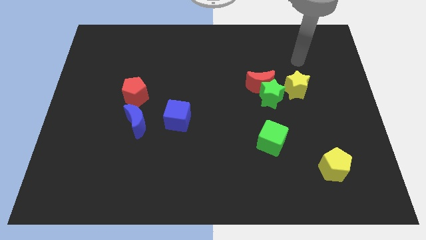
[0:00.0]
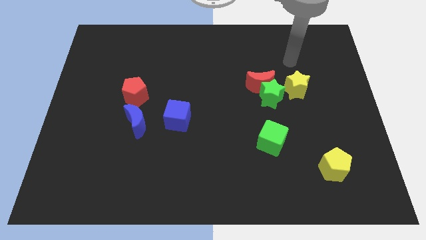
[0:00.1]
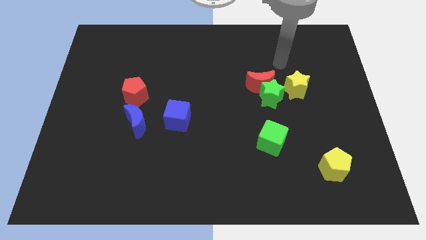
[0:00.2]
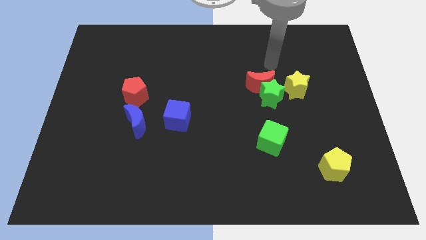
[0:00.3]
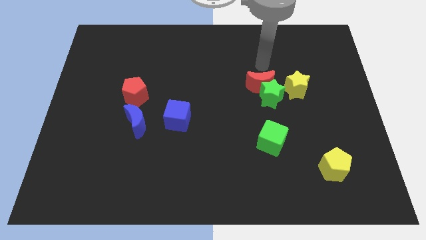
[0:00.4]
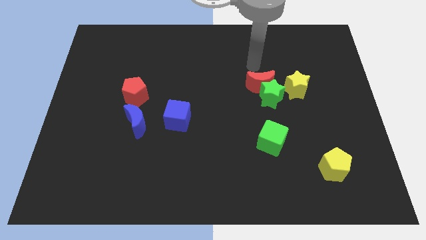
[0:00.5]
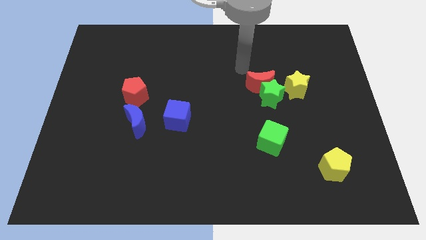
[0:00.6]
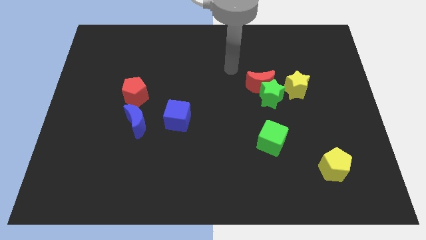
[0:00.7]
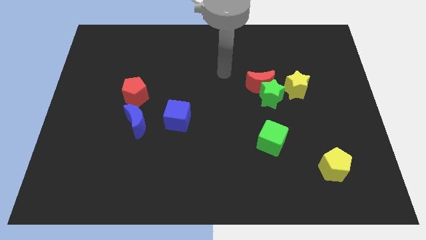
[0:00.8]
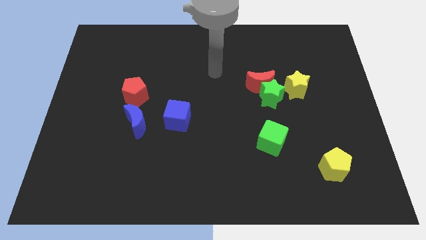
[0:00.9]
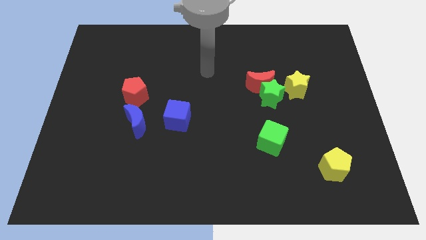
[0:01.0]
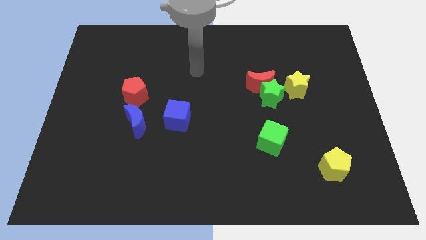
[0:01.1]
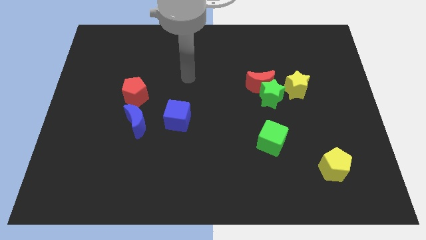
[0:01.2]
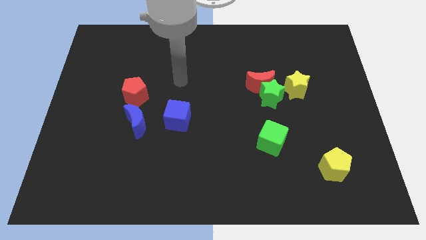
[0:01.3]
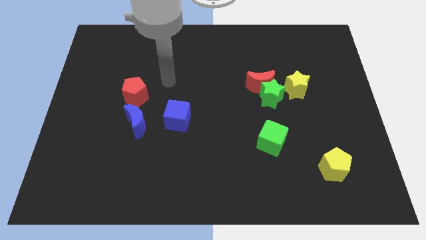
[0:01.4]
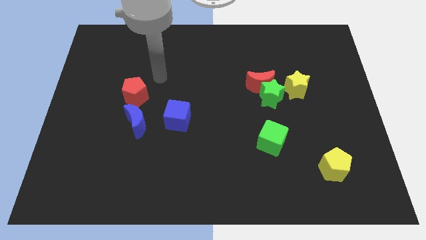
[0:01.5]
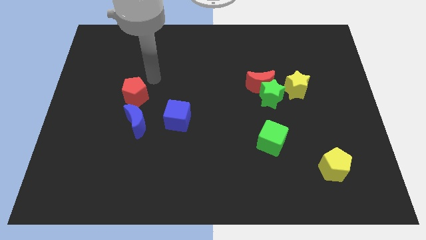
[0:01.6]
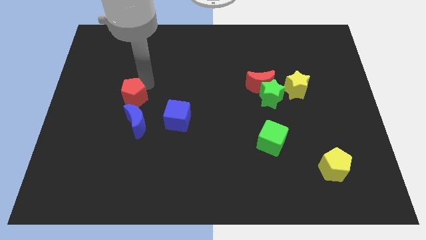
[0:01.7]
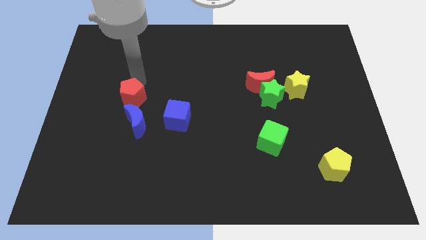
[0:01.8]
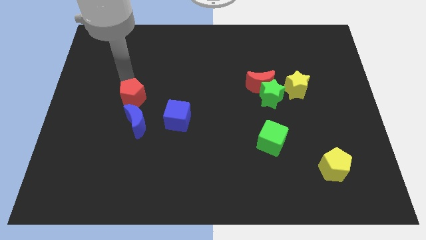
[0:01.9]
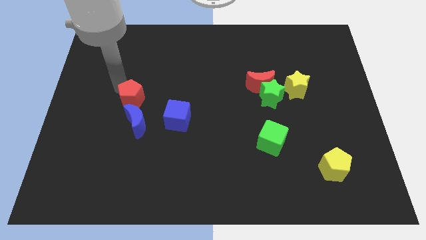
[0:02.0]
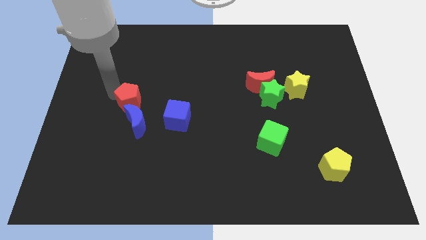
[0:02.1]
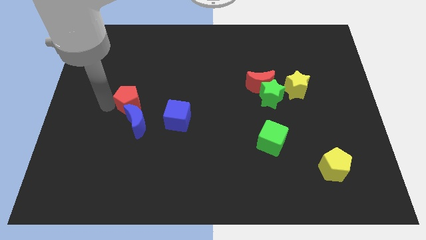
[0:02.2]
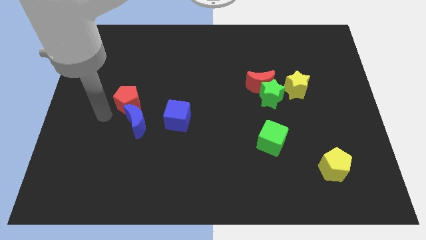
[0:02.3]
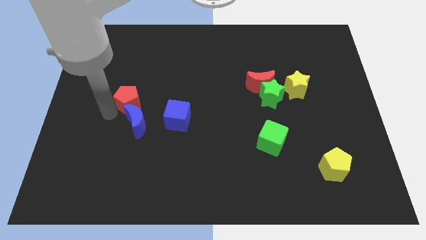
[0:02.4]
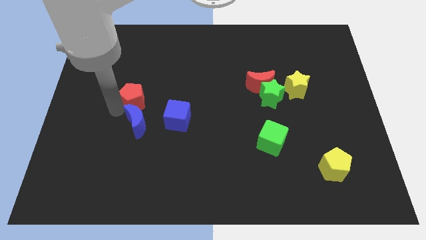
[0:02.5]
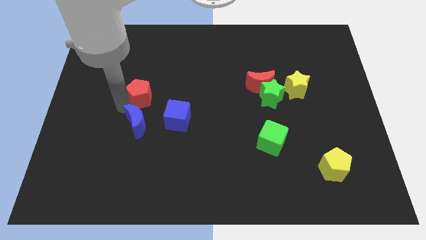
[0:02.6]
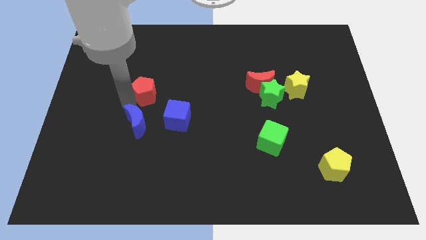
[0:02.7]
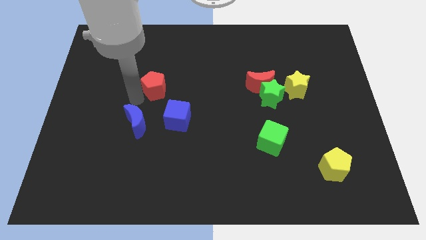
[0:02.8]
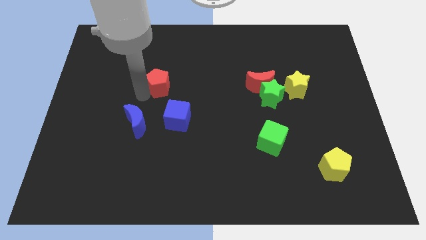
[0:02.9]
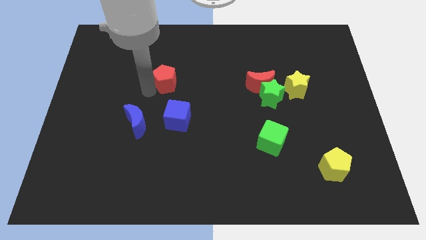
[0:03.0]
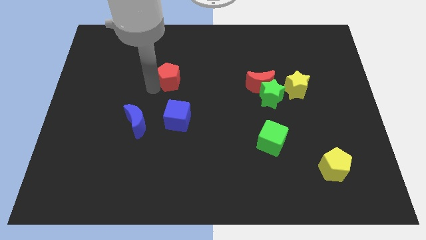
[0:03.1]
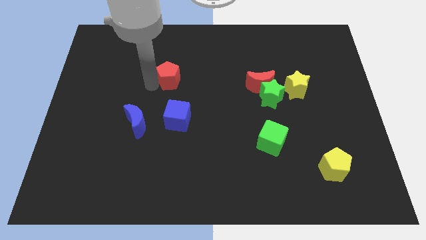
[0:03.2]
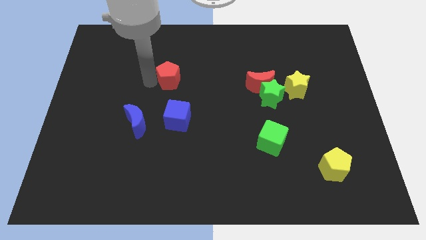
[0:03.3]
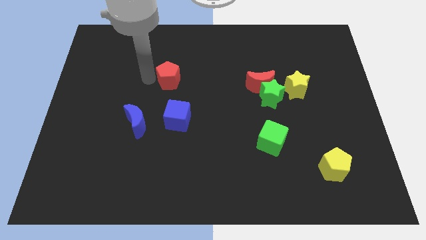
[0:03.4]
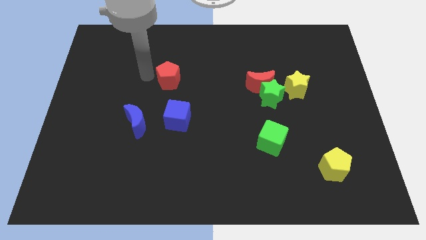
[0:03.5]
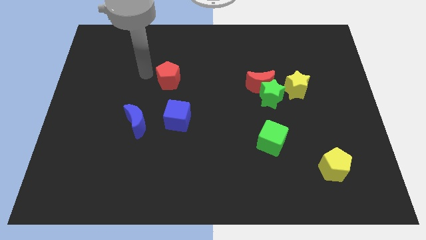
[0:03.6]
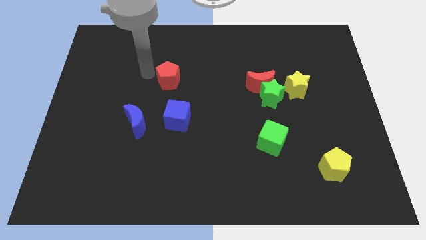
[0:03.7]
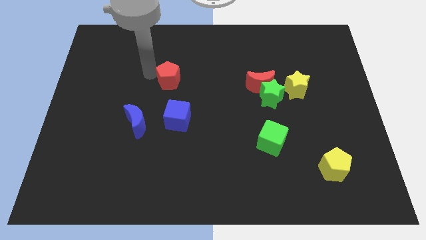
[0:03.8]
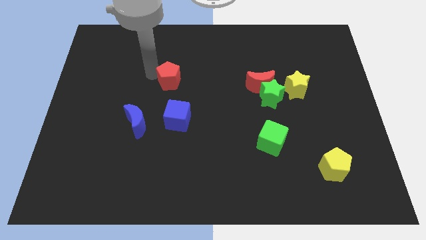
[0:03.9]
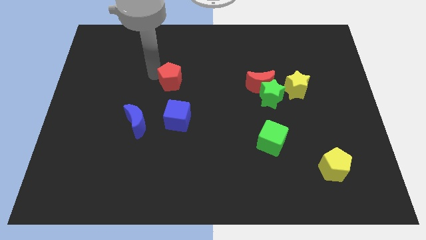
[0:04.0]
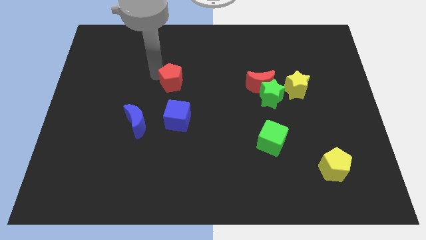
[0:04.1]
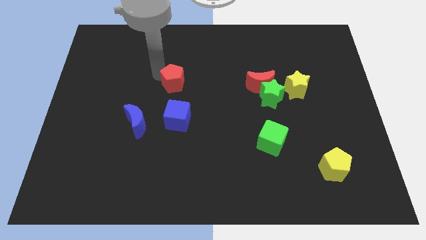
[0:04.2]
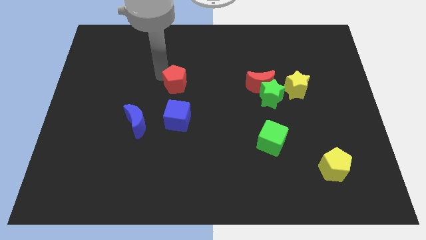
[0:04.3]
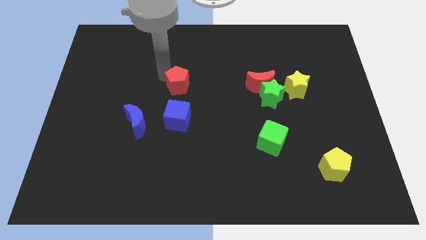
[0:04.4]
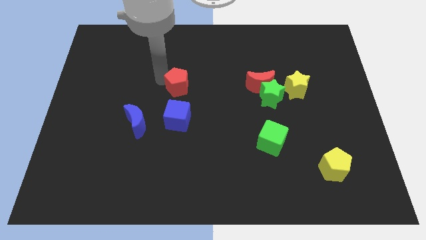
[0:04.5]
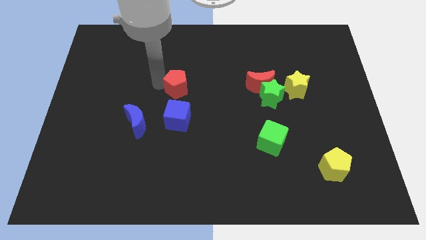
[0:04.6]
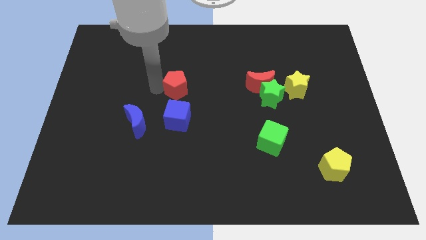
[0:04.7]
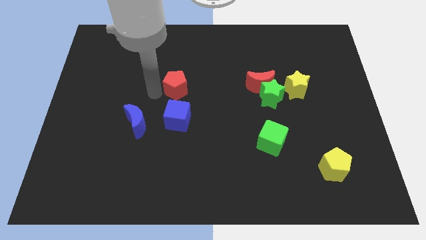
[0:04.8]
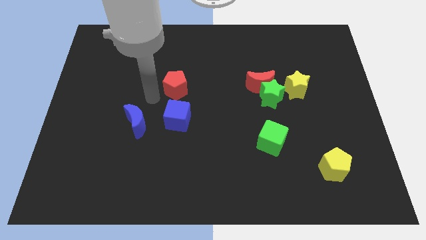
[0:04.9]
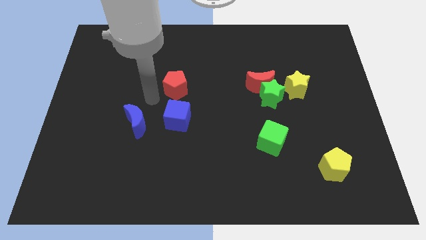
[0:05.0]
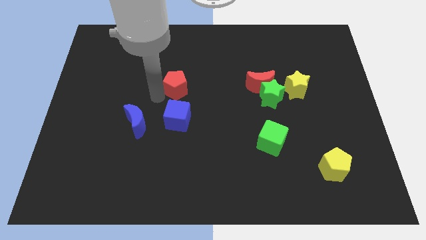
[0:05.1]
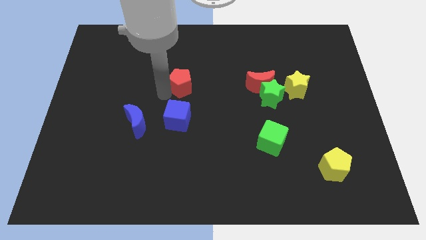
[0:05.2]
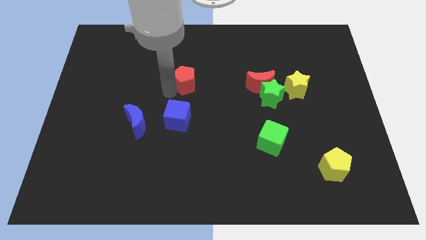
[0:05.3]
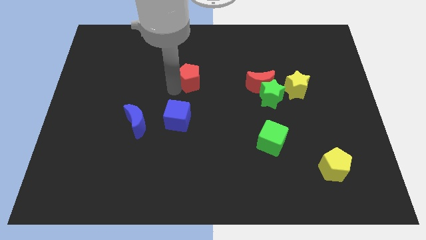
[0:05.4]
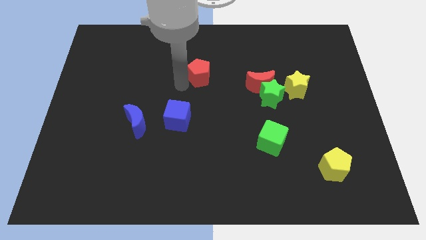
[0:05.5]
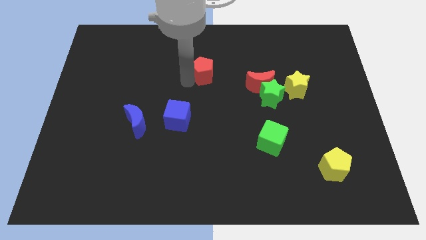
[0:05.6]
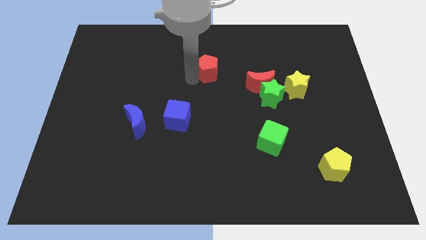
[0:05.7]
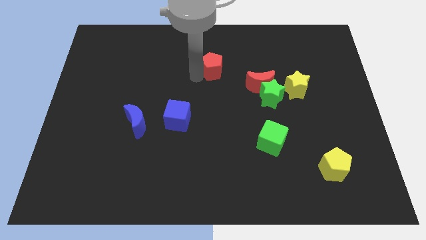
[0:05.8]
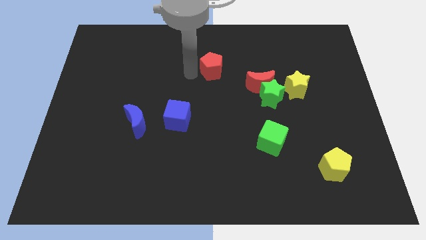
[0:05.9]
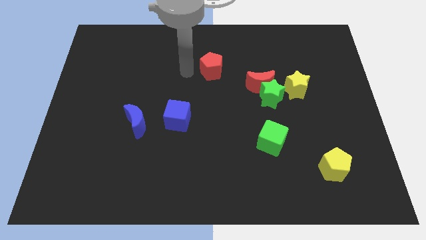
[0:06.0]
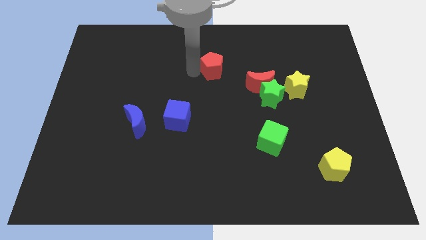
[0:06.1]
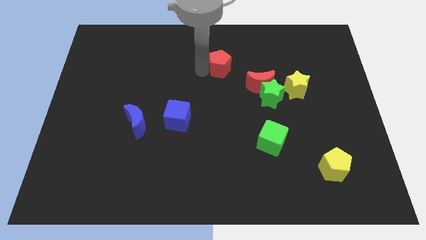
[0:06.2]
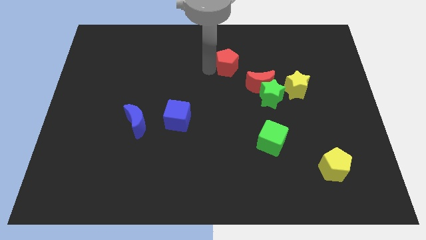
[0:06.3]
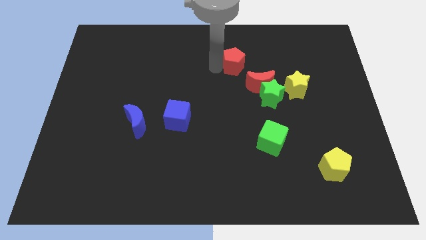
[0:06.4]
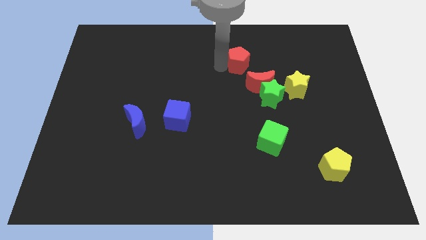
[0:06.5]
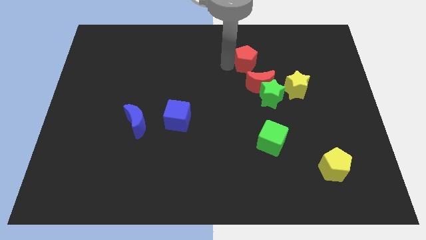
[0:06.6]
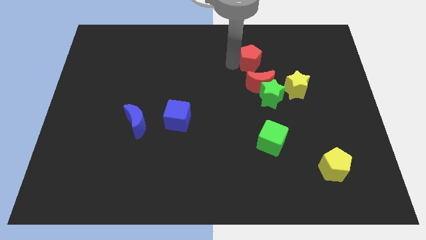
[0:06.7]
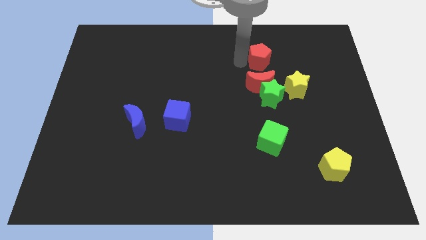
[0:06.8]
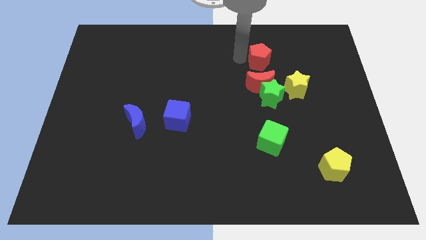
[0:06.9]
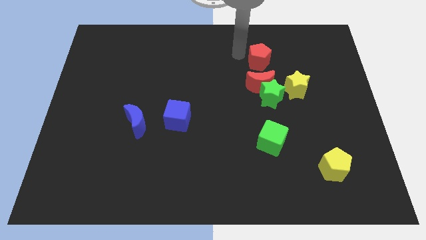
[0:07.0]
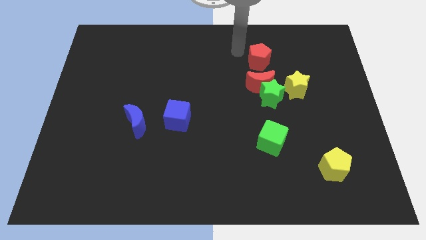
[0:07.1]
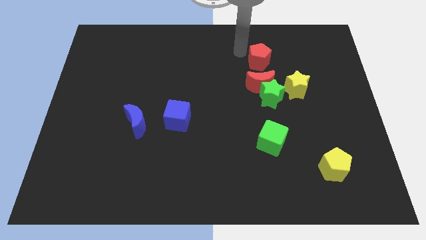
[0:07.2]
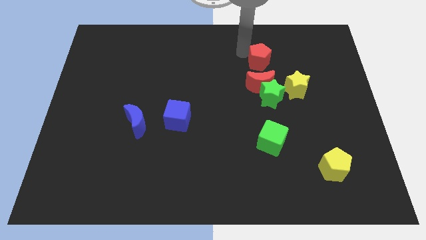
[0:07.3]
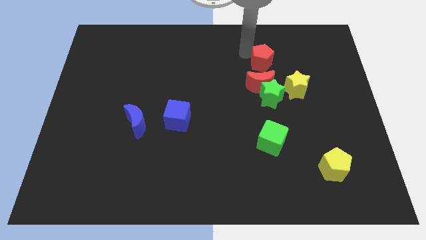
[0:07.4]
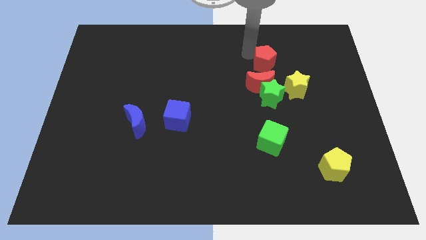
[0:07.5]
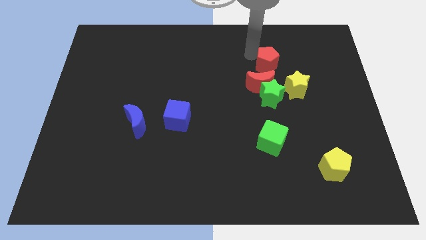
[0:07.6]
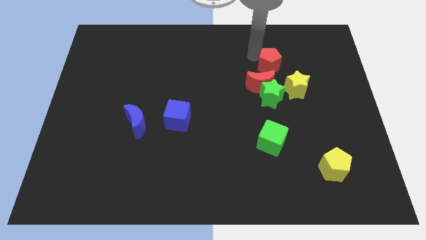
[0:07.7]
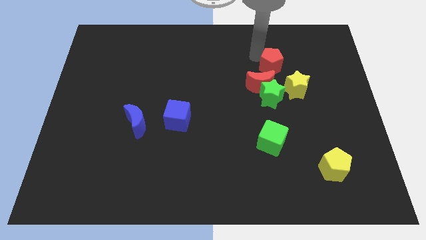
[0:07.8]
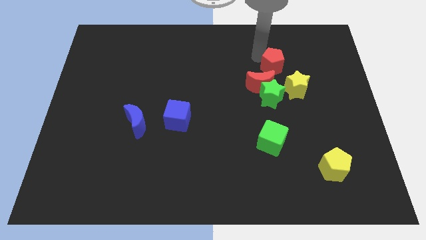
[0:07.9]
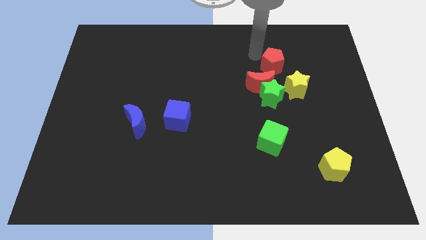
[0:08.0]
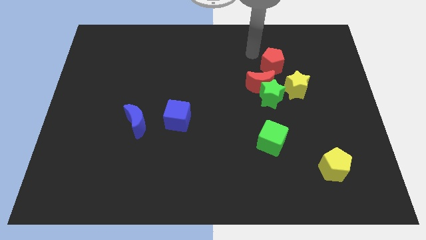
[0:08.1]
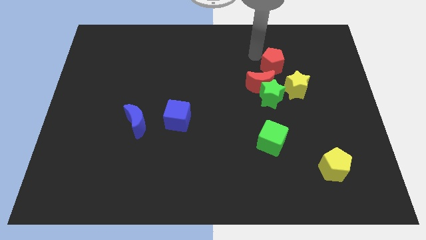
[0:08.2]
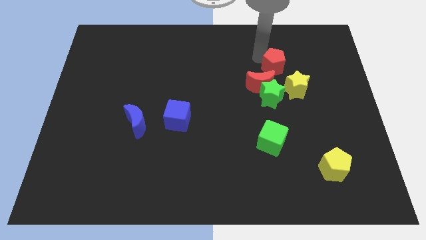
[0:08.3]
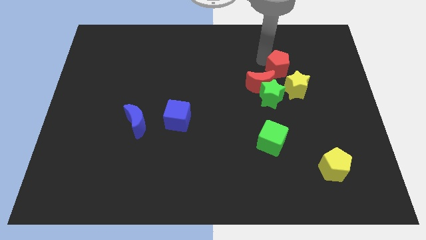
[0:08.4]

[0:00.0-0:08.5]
push the red pentagon diagonally up and to the right of the green star
